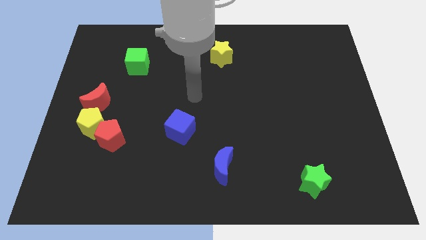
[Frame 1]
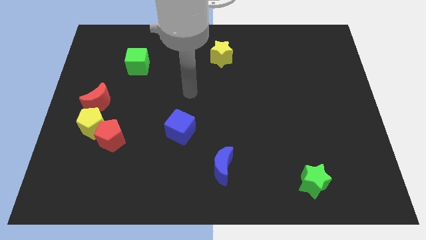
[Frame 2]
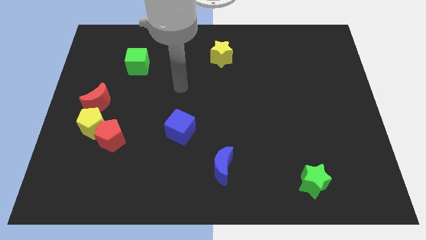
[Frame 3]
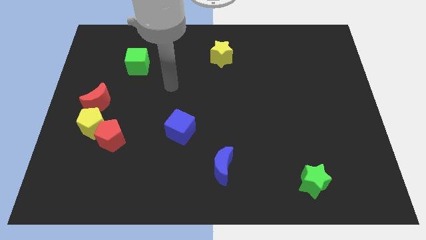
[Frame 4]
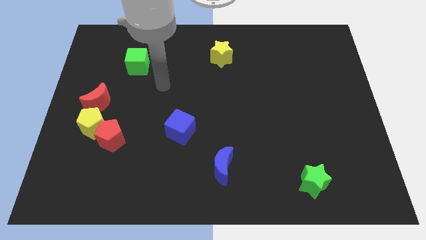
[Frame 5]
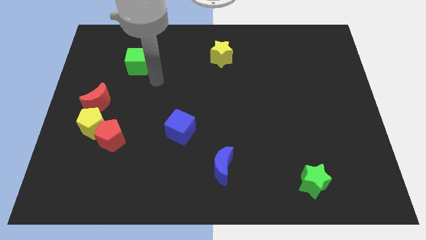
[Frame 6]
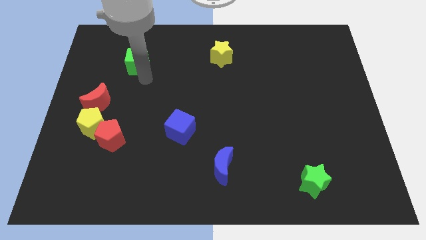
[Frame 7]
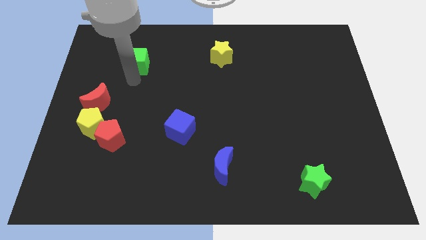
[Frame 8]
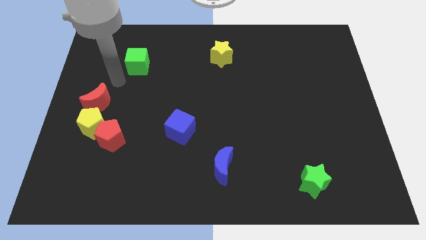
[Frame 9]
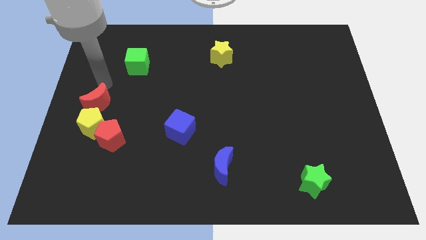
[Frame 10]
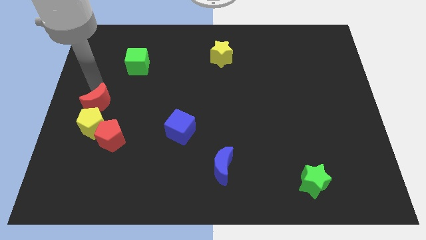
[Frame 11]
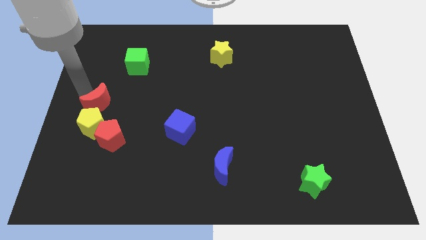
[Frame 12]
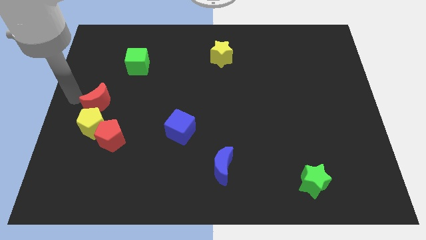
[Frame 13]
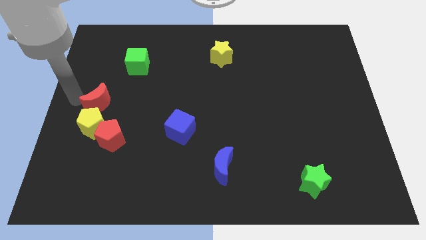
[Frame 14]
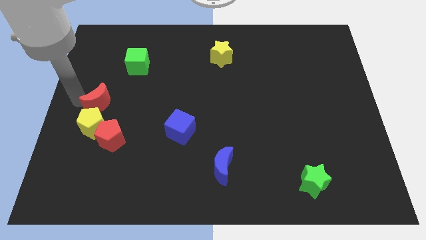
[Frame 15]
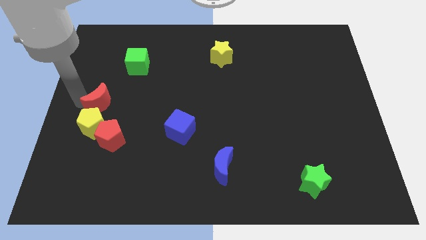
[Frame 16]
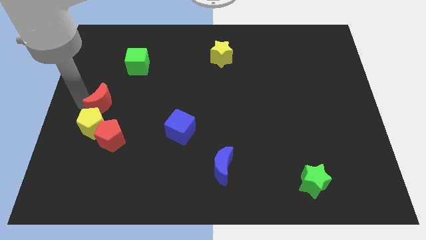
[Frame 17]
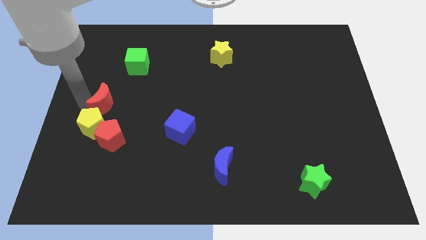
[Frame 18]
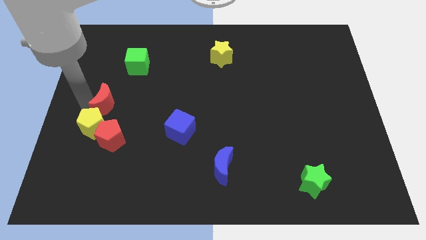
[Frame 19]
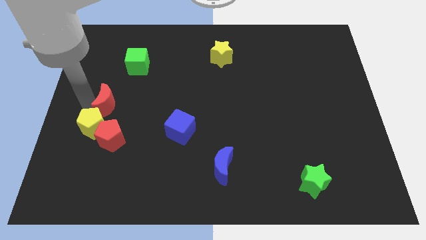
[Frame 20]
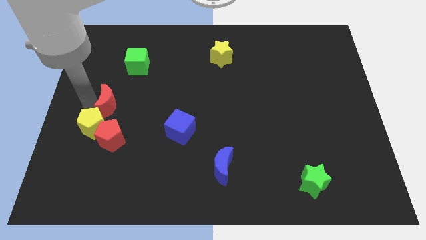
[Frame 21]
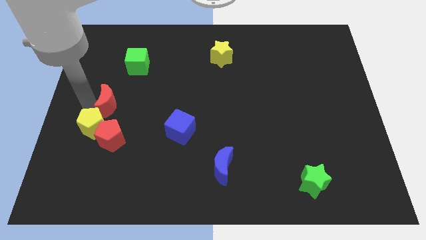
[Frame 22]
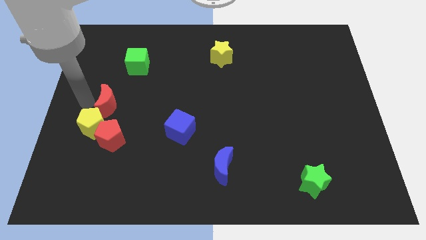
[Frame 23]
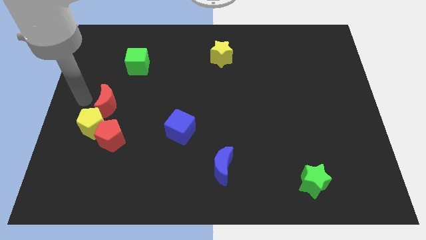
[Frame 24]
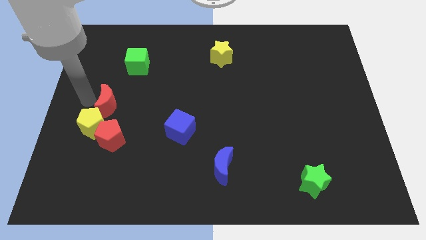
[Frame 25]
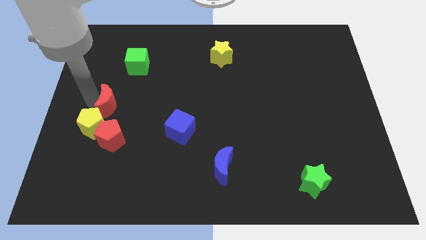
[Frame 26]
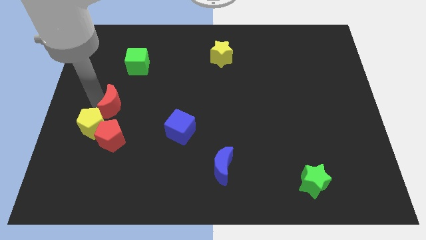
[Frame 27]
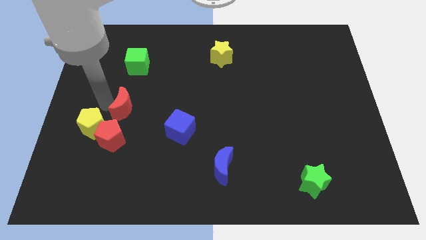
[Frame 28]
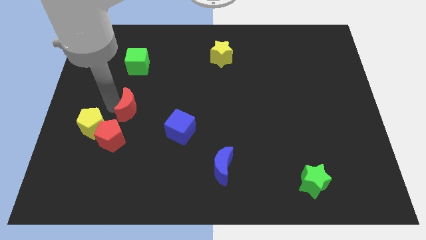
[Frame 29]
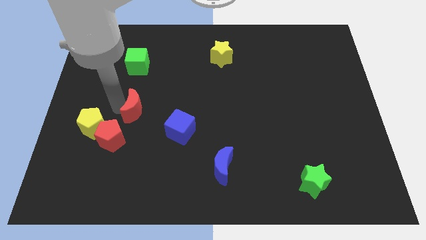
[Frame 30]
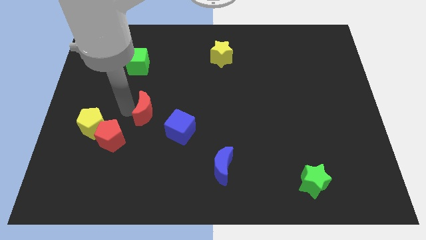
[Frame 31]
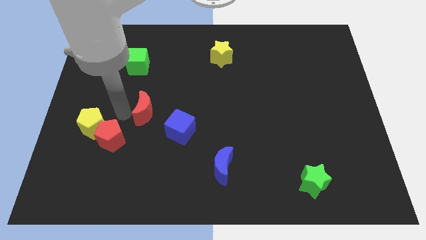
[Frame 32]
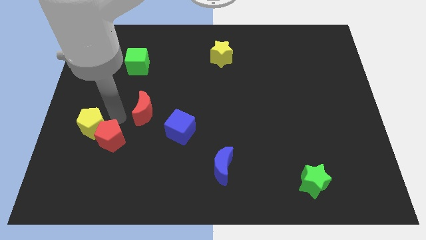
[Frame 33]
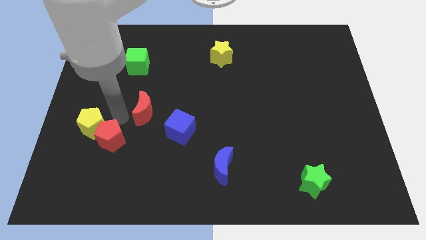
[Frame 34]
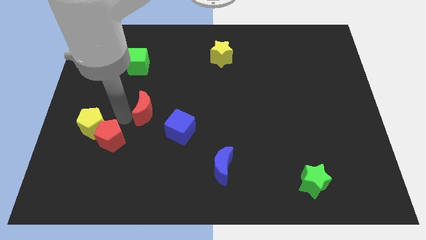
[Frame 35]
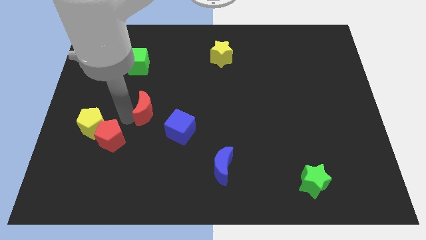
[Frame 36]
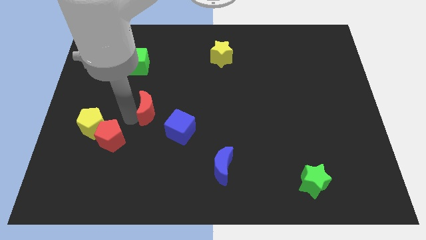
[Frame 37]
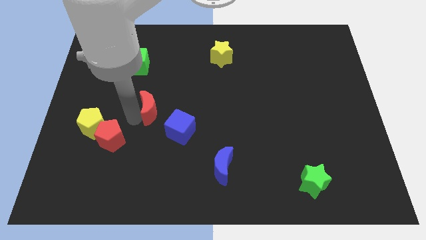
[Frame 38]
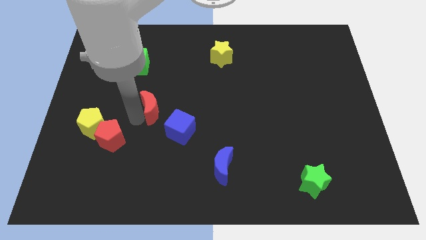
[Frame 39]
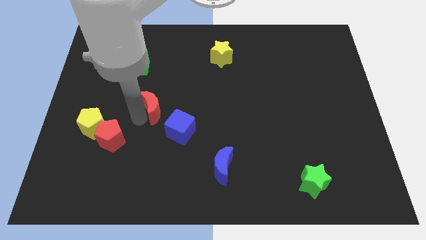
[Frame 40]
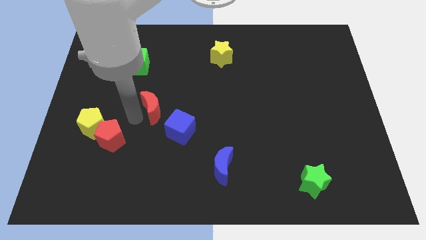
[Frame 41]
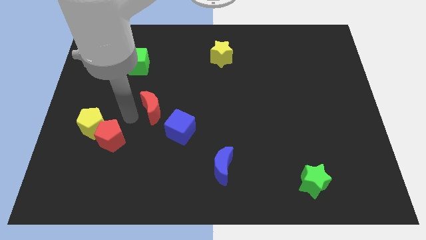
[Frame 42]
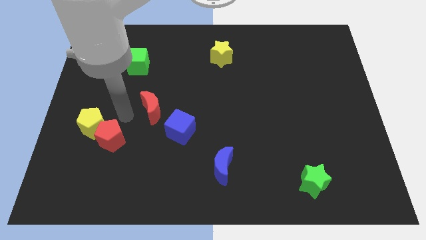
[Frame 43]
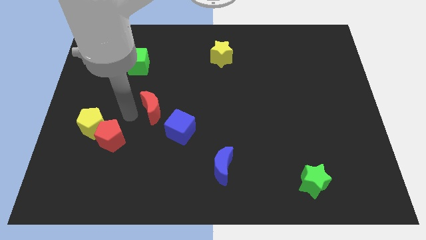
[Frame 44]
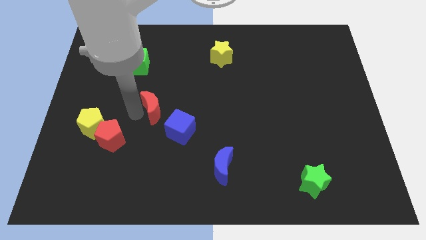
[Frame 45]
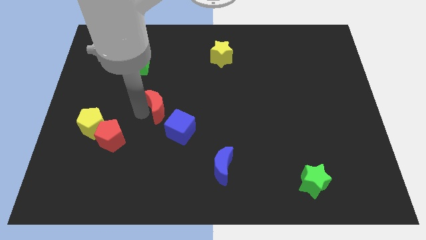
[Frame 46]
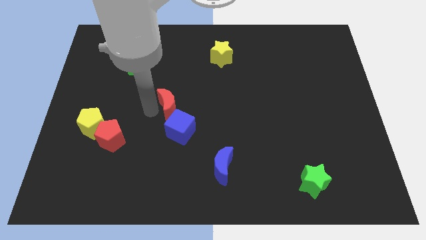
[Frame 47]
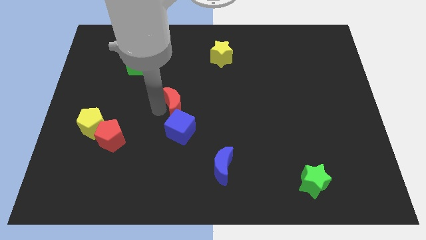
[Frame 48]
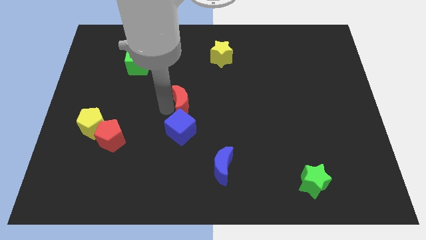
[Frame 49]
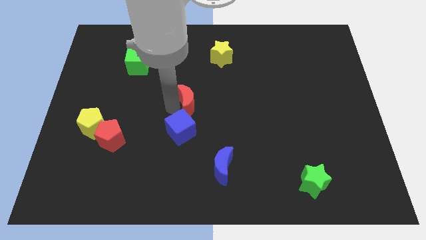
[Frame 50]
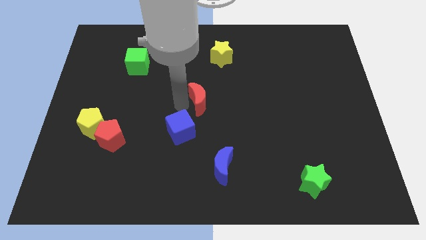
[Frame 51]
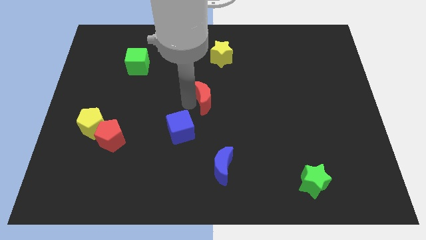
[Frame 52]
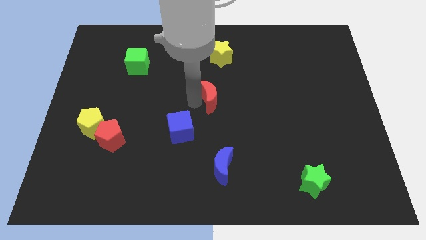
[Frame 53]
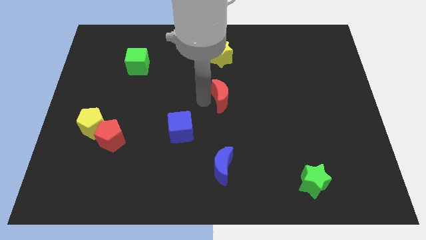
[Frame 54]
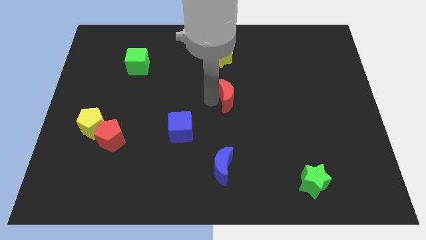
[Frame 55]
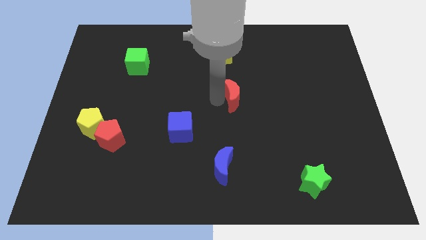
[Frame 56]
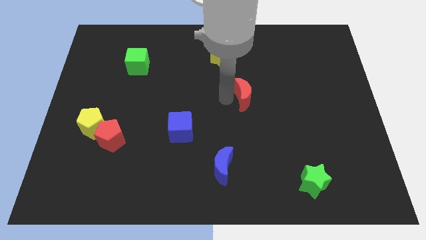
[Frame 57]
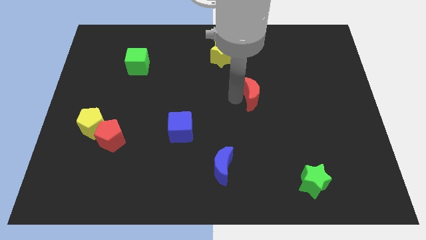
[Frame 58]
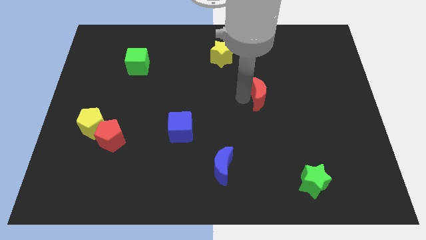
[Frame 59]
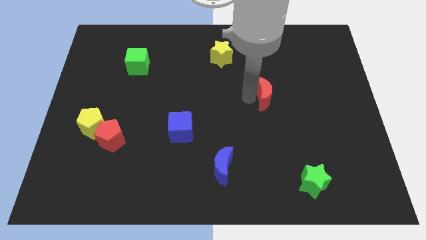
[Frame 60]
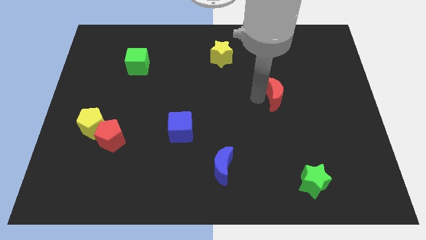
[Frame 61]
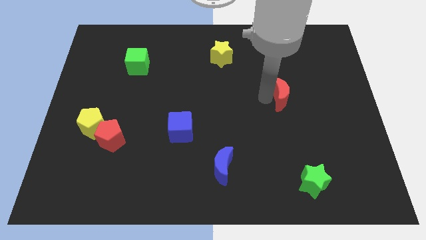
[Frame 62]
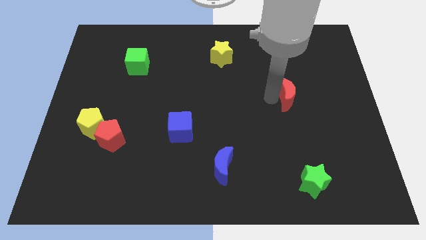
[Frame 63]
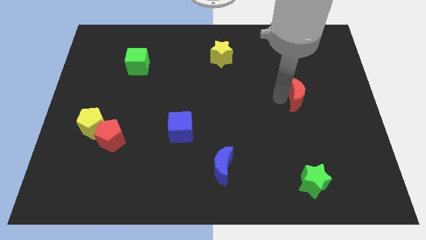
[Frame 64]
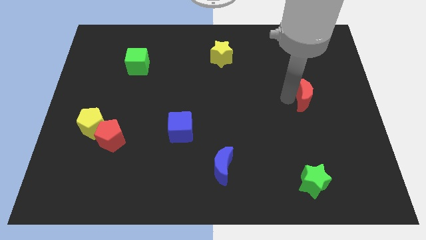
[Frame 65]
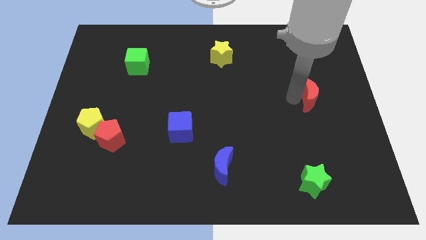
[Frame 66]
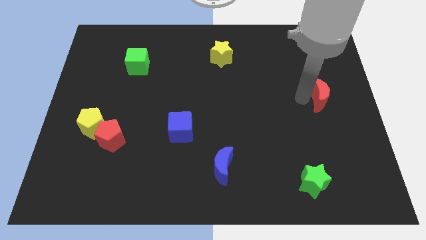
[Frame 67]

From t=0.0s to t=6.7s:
slide the red moon to the right side of the board

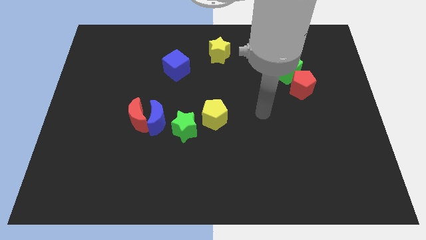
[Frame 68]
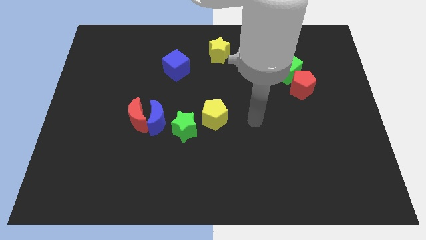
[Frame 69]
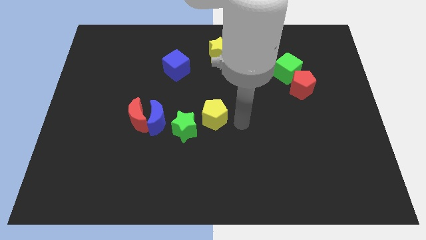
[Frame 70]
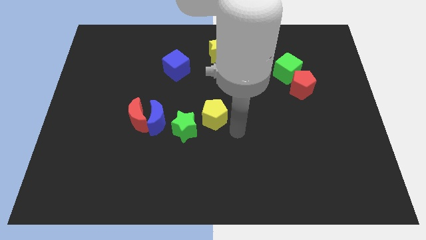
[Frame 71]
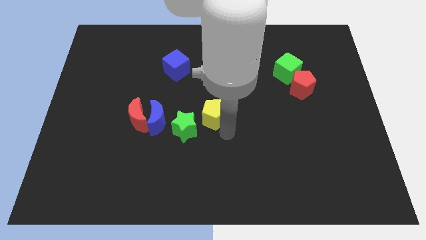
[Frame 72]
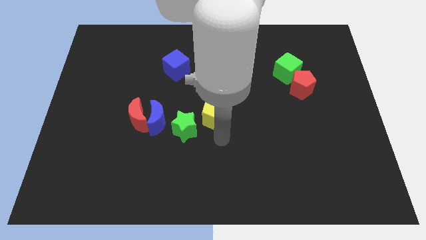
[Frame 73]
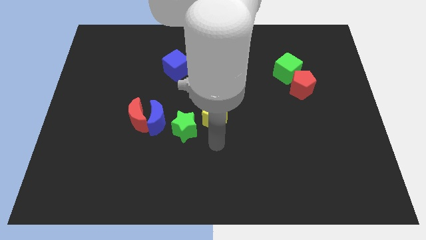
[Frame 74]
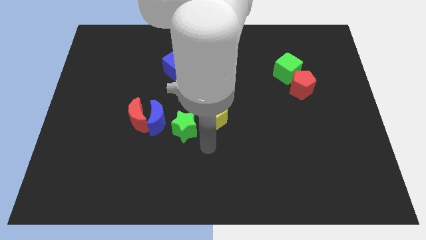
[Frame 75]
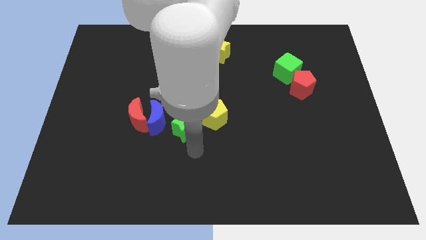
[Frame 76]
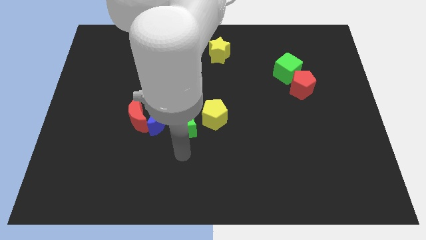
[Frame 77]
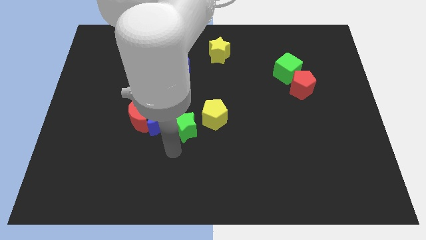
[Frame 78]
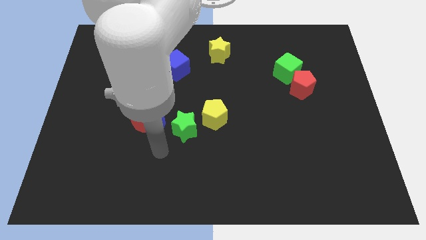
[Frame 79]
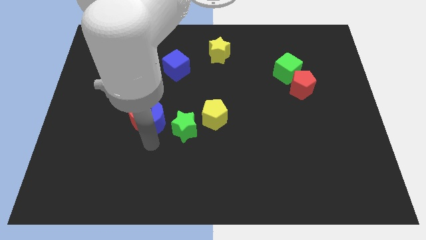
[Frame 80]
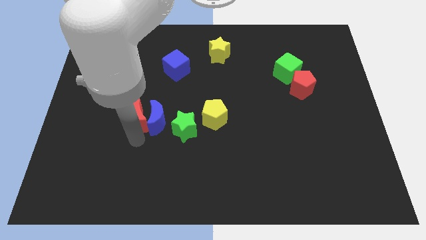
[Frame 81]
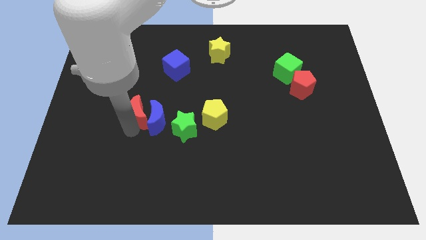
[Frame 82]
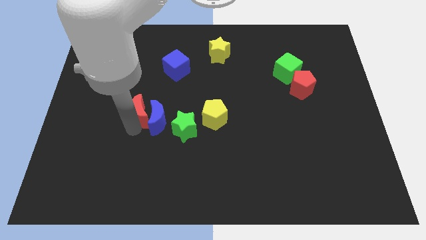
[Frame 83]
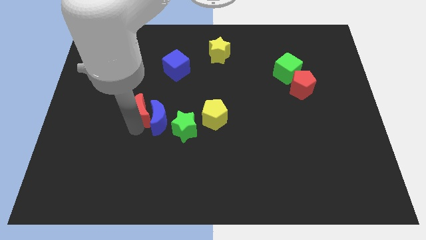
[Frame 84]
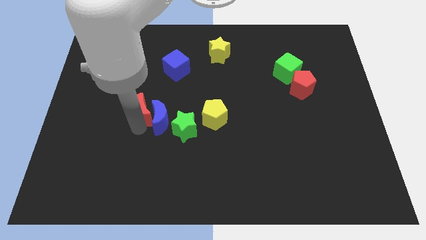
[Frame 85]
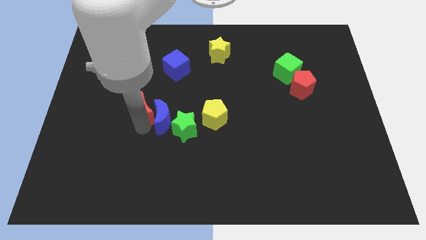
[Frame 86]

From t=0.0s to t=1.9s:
slide the blue moon to the center of the board
